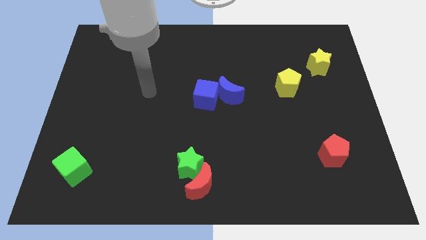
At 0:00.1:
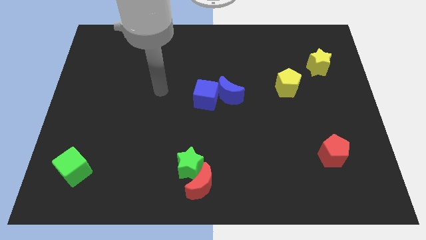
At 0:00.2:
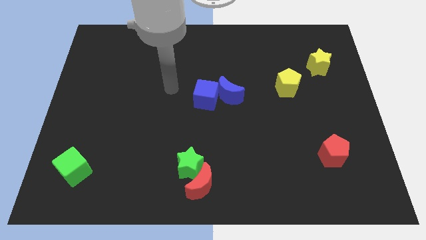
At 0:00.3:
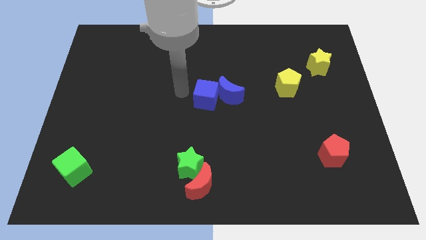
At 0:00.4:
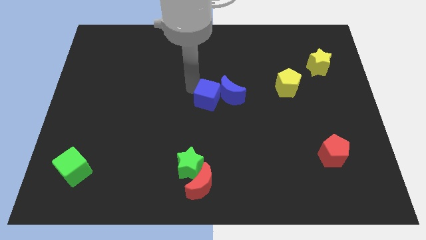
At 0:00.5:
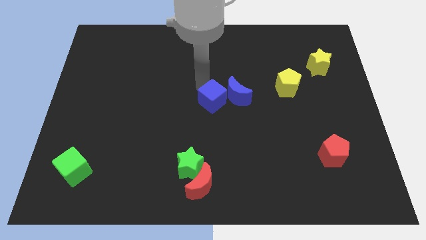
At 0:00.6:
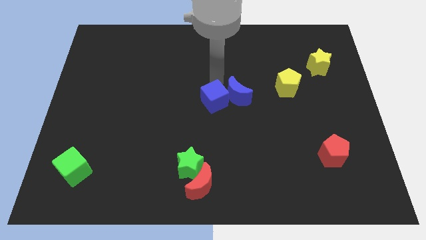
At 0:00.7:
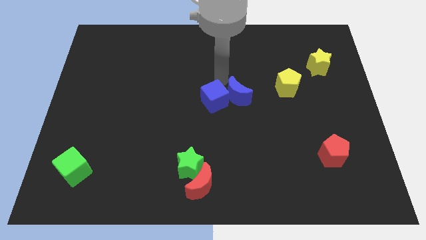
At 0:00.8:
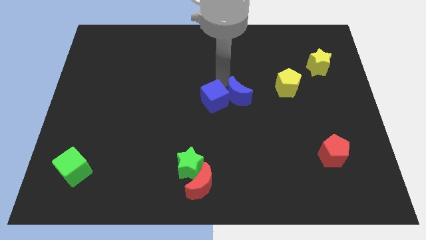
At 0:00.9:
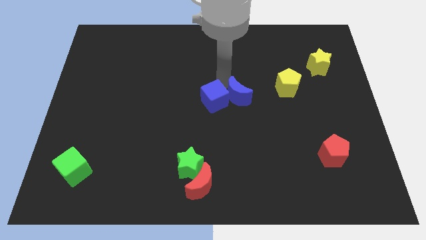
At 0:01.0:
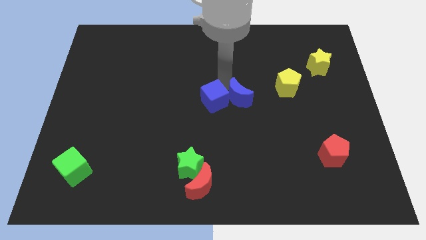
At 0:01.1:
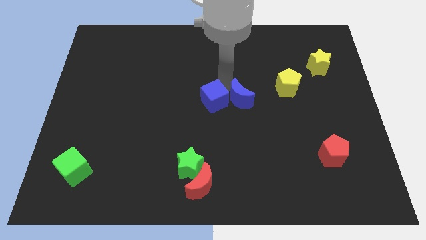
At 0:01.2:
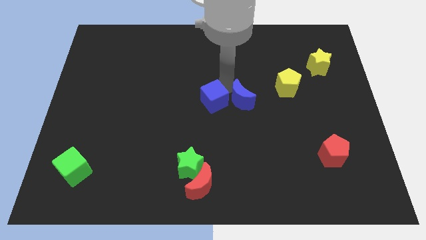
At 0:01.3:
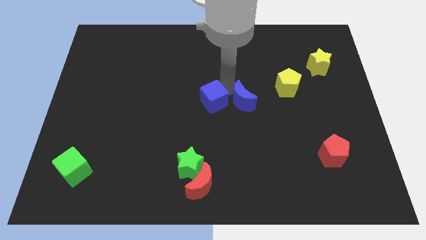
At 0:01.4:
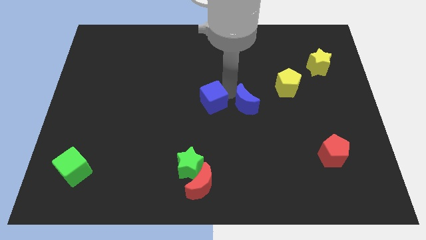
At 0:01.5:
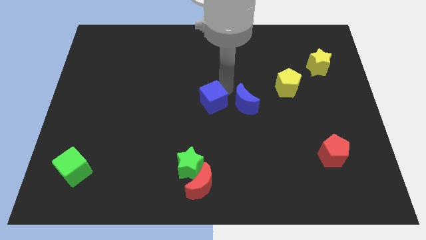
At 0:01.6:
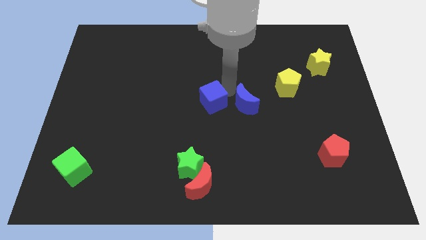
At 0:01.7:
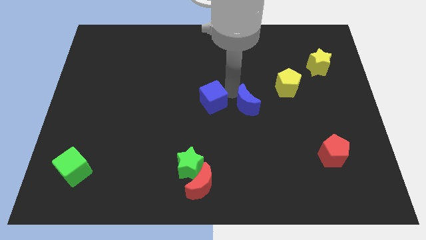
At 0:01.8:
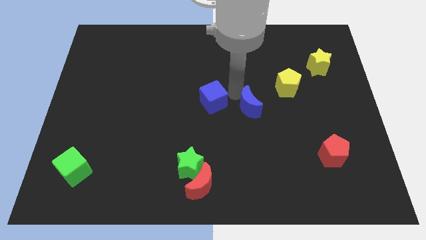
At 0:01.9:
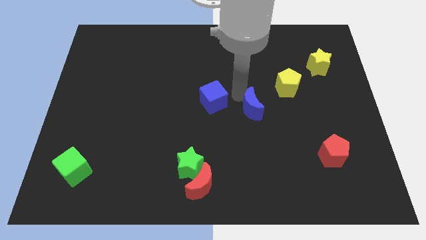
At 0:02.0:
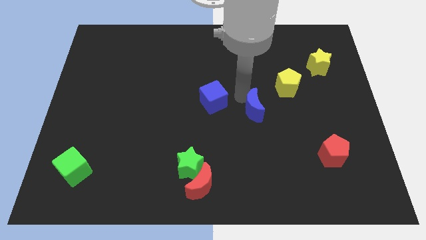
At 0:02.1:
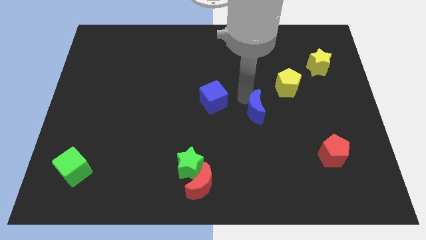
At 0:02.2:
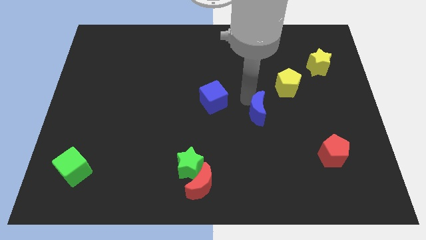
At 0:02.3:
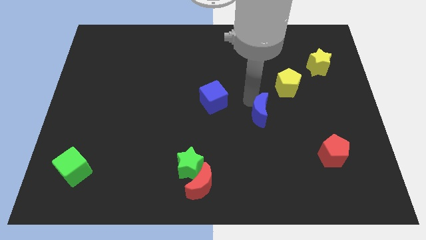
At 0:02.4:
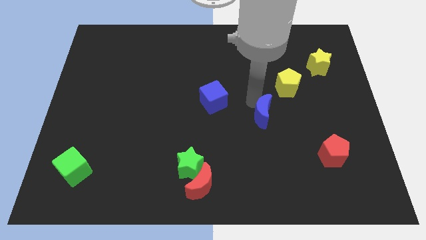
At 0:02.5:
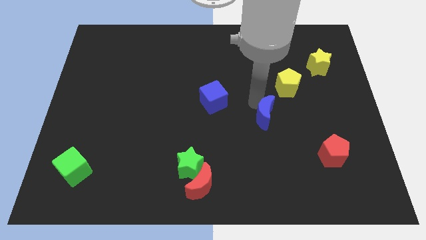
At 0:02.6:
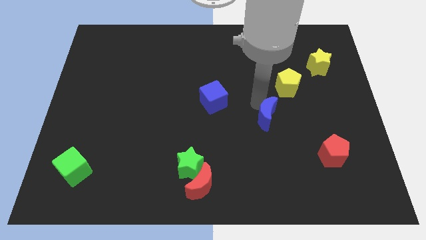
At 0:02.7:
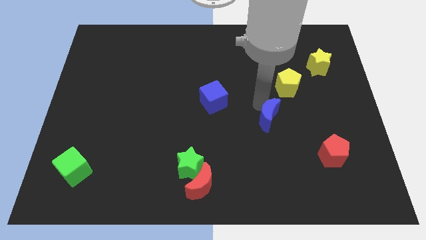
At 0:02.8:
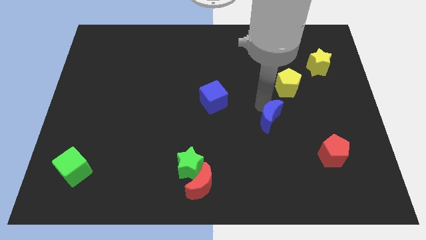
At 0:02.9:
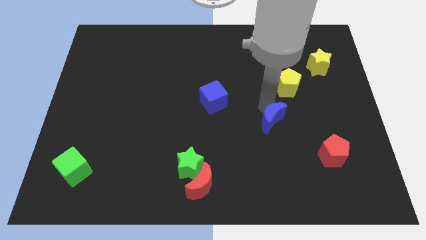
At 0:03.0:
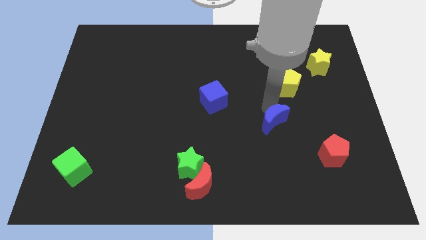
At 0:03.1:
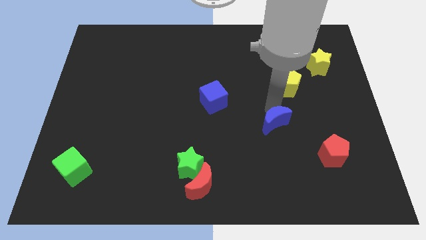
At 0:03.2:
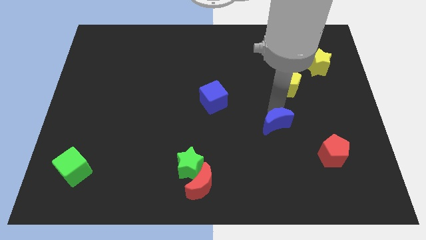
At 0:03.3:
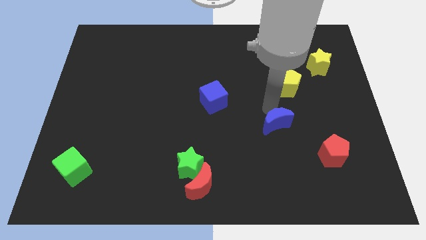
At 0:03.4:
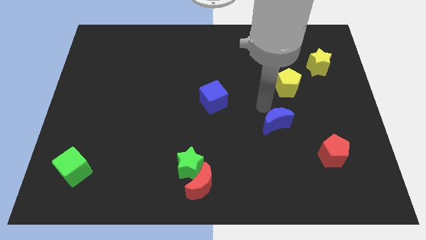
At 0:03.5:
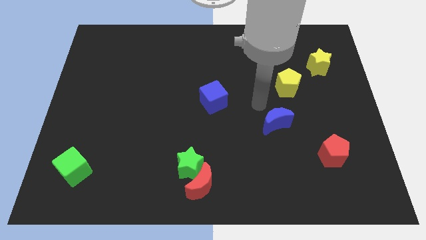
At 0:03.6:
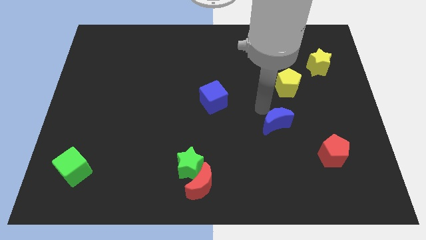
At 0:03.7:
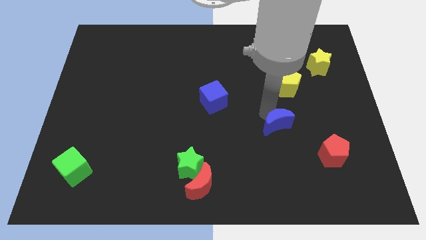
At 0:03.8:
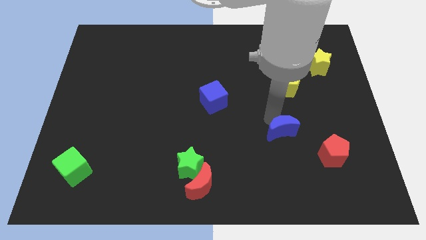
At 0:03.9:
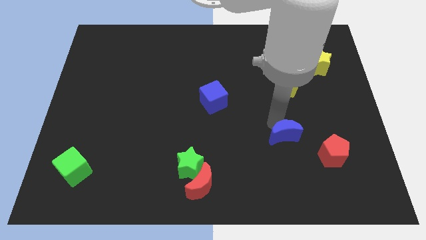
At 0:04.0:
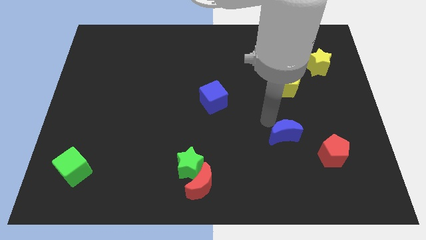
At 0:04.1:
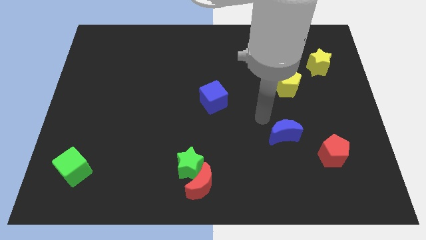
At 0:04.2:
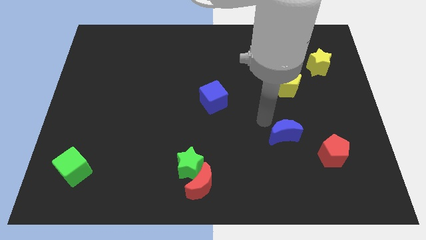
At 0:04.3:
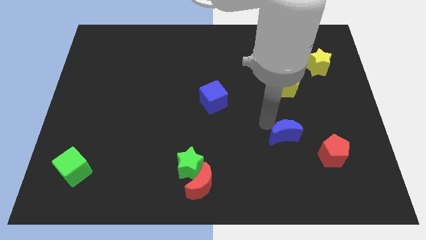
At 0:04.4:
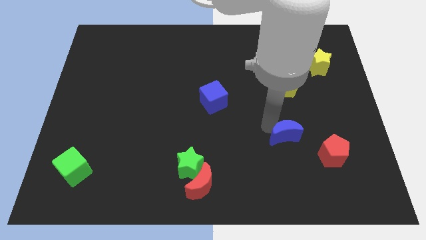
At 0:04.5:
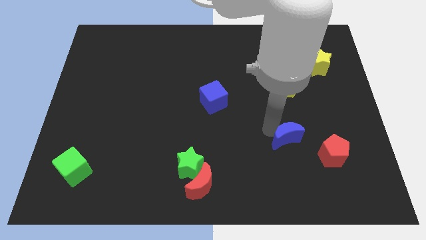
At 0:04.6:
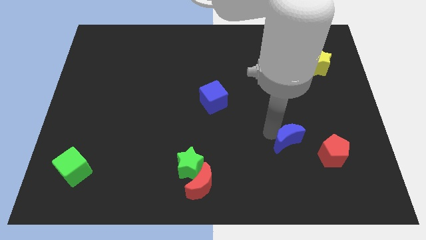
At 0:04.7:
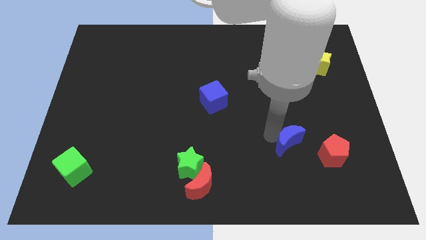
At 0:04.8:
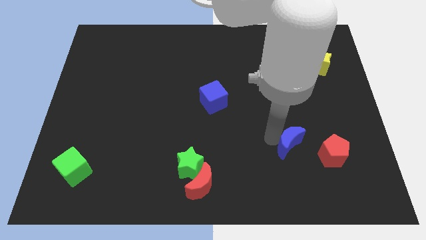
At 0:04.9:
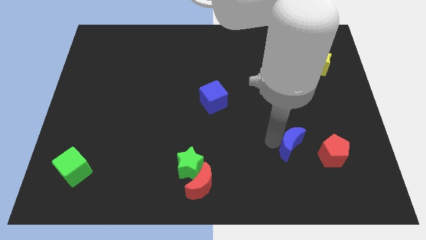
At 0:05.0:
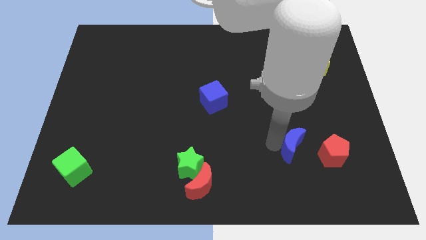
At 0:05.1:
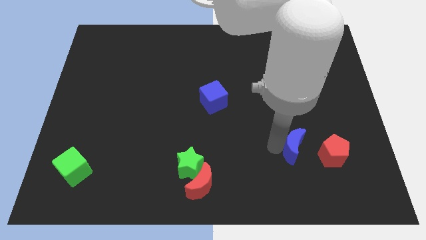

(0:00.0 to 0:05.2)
push the blue moon down and to the right

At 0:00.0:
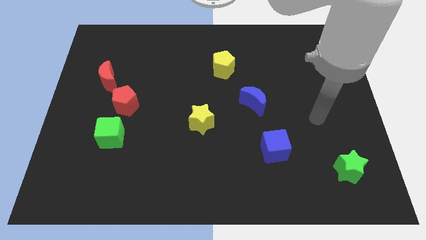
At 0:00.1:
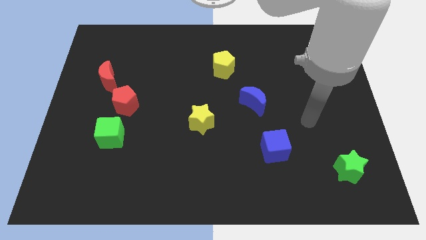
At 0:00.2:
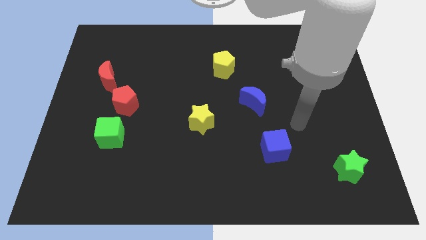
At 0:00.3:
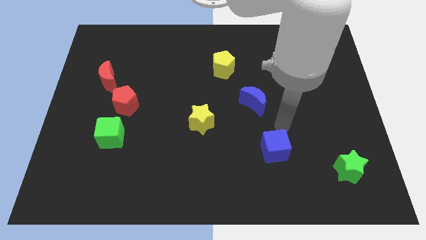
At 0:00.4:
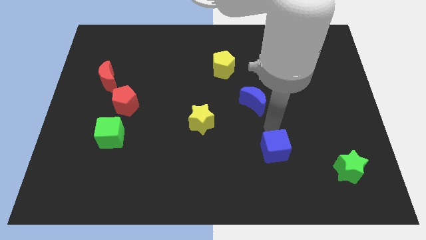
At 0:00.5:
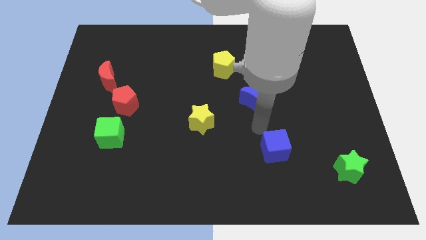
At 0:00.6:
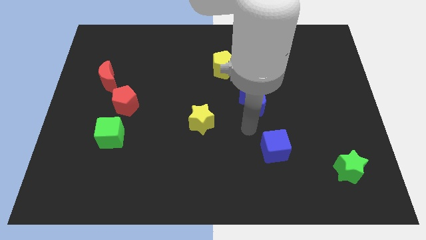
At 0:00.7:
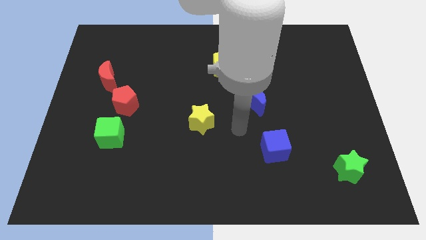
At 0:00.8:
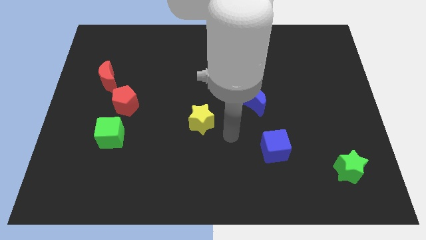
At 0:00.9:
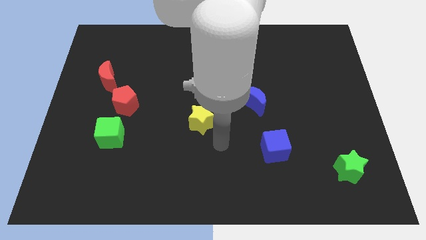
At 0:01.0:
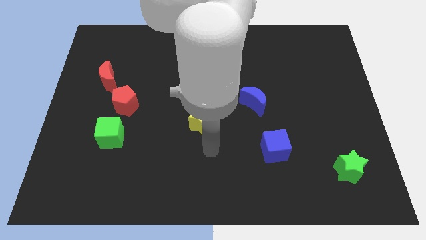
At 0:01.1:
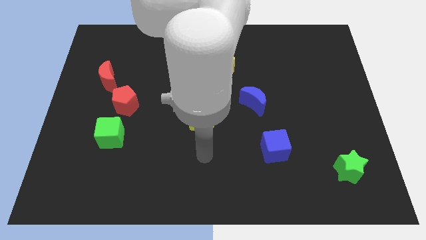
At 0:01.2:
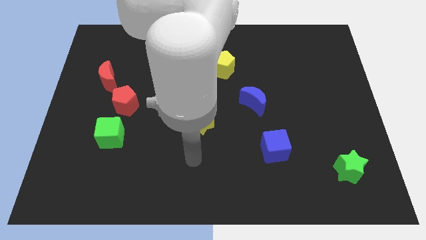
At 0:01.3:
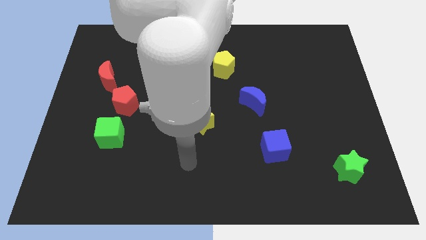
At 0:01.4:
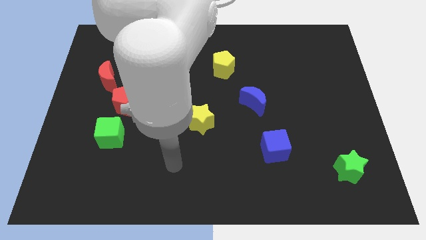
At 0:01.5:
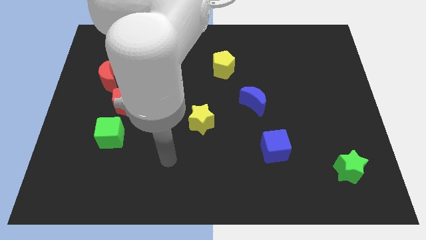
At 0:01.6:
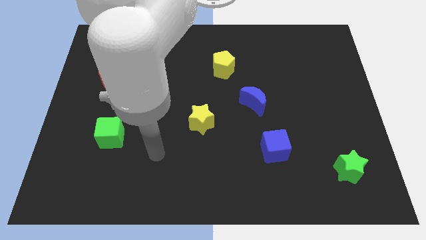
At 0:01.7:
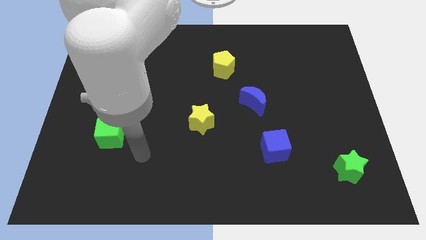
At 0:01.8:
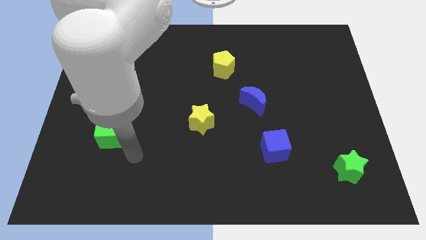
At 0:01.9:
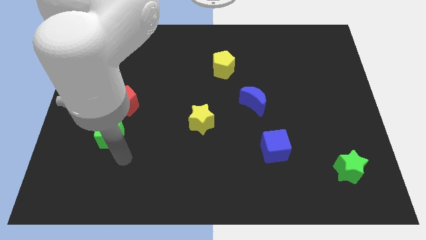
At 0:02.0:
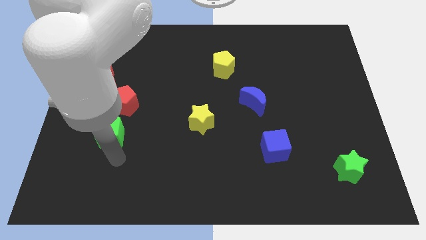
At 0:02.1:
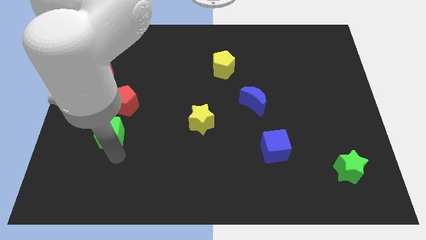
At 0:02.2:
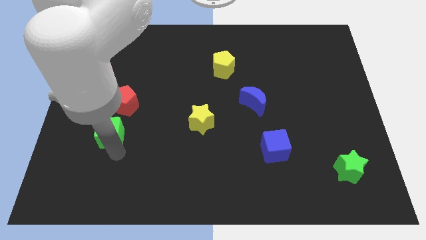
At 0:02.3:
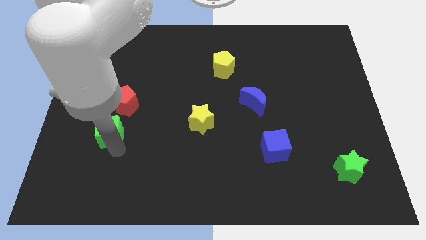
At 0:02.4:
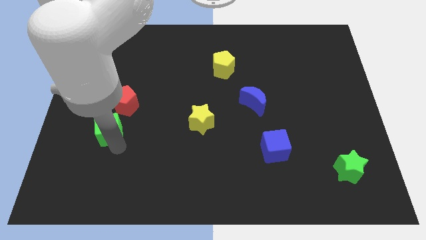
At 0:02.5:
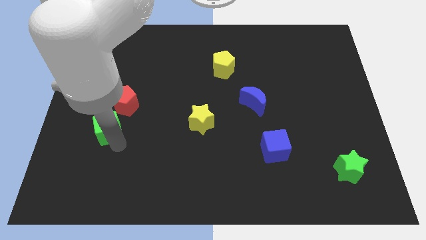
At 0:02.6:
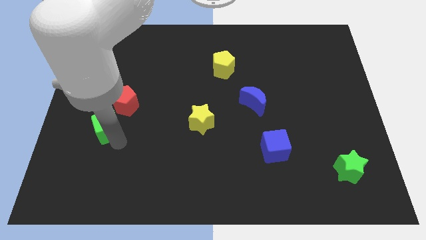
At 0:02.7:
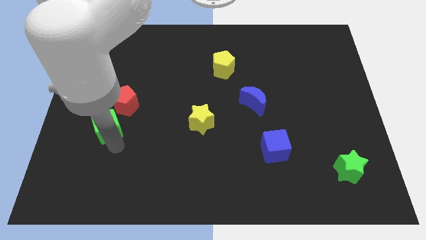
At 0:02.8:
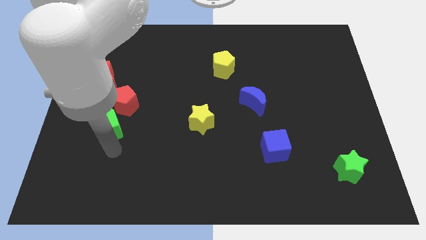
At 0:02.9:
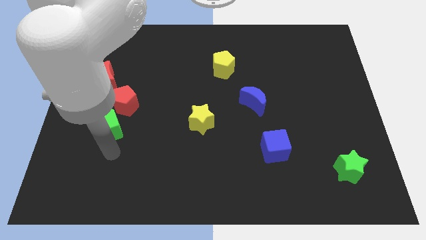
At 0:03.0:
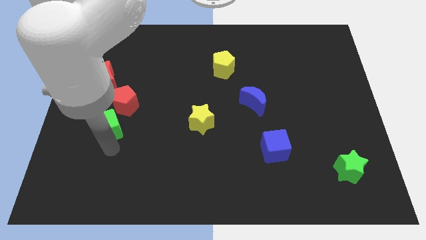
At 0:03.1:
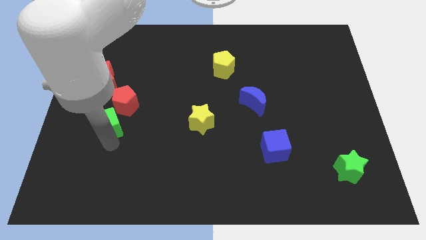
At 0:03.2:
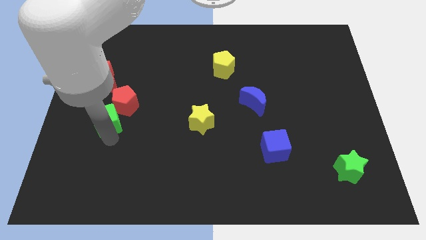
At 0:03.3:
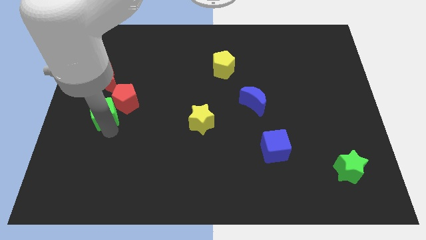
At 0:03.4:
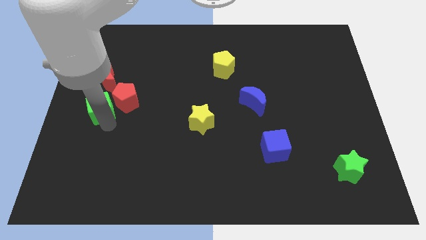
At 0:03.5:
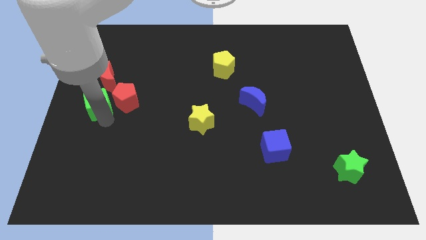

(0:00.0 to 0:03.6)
move the green cube a little bit upwards
